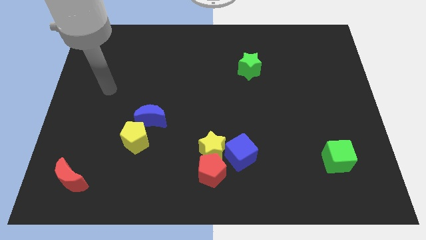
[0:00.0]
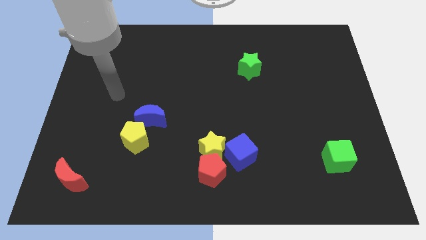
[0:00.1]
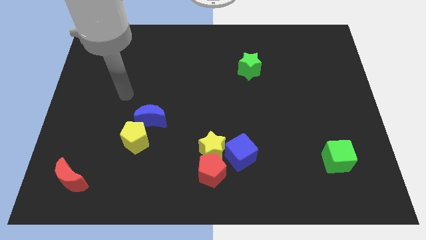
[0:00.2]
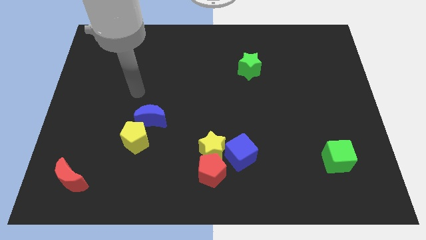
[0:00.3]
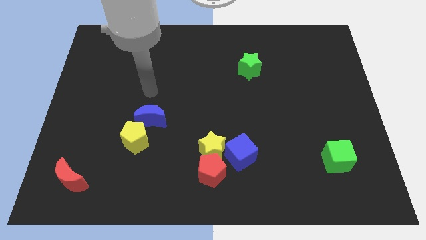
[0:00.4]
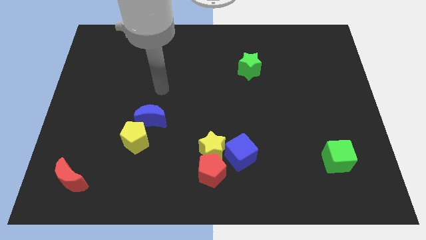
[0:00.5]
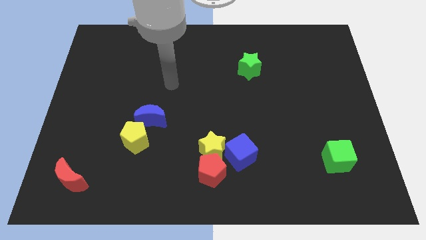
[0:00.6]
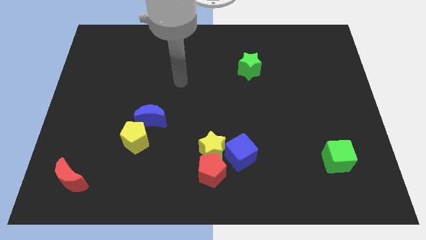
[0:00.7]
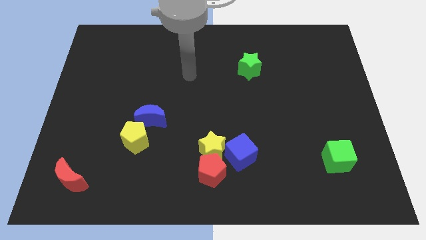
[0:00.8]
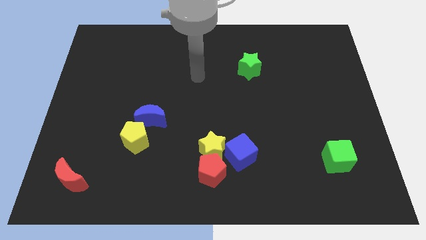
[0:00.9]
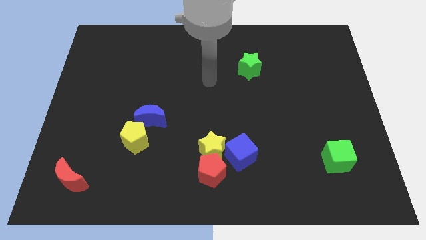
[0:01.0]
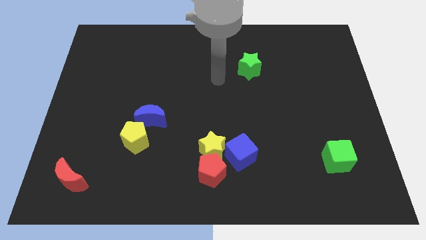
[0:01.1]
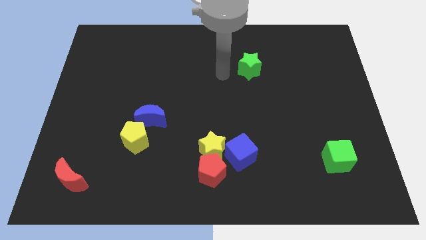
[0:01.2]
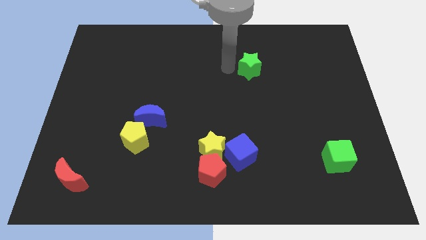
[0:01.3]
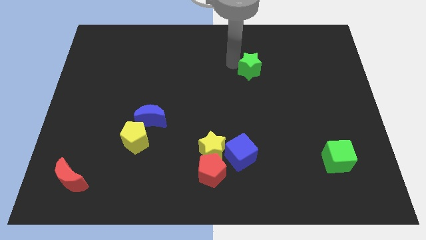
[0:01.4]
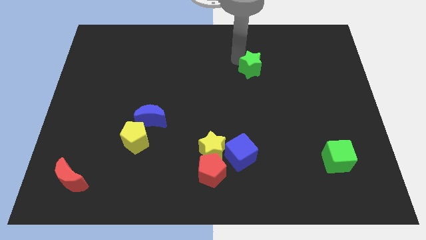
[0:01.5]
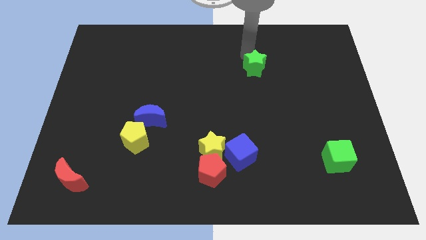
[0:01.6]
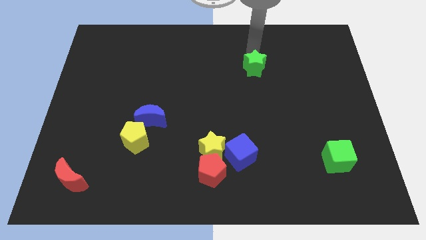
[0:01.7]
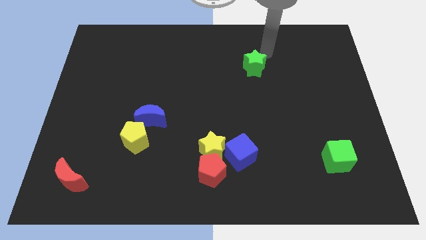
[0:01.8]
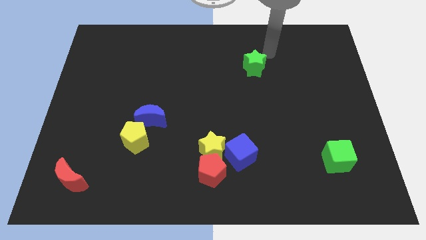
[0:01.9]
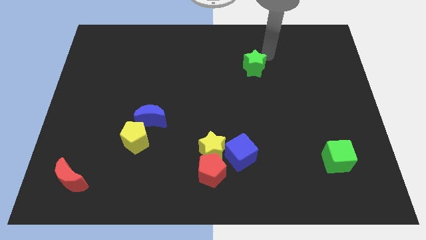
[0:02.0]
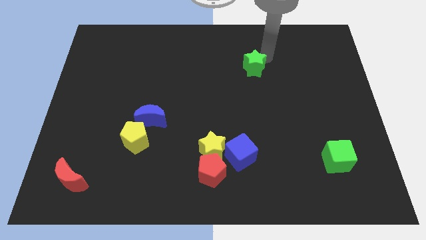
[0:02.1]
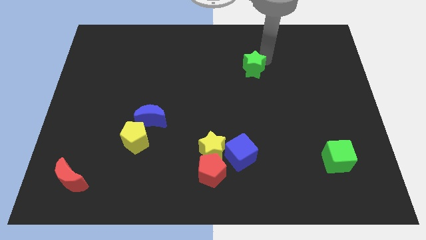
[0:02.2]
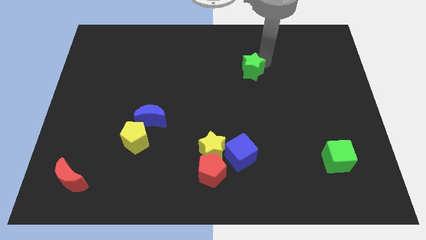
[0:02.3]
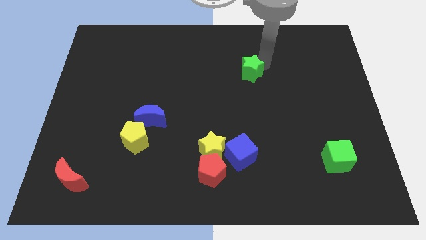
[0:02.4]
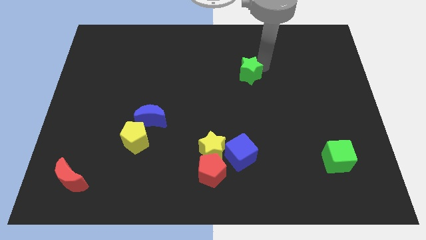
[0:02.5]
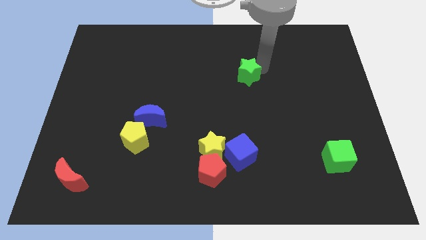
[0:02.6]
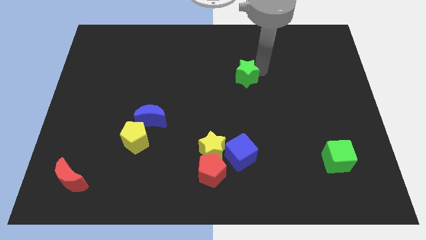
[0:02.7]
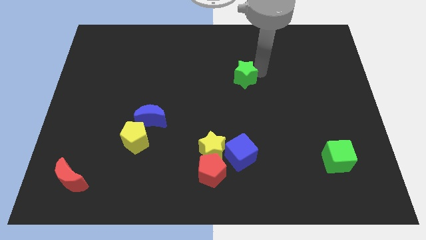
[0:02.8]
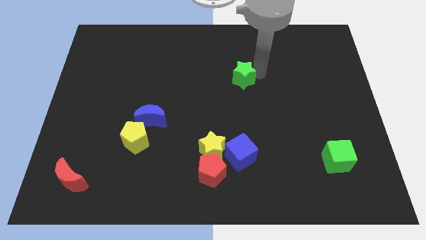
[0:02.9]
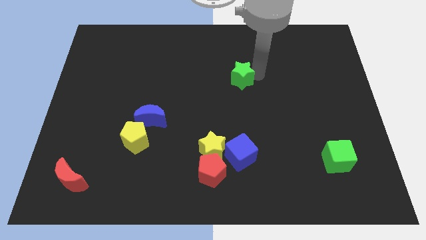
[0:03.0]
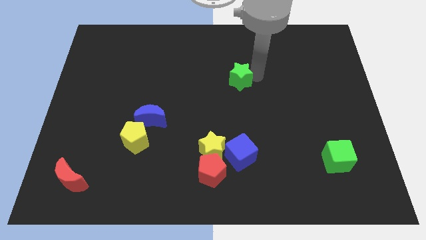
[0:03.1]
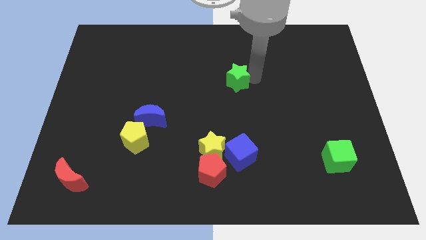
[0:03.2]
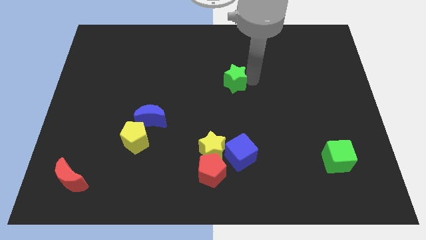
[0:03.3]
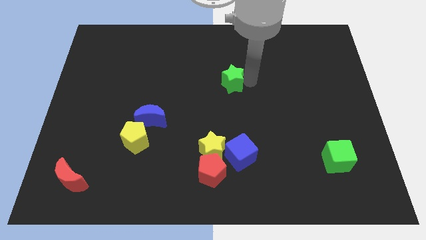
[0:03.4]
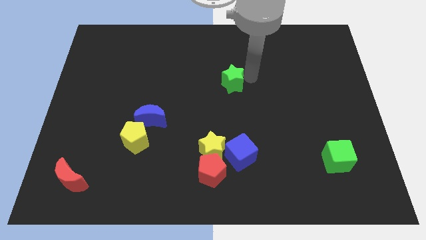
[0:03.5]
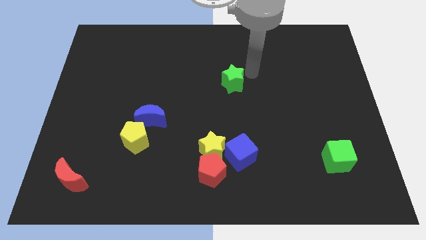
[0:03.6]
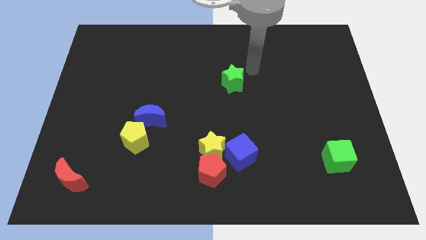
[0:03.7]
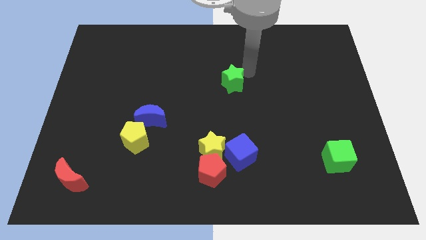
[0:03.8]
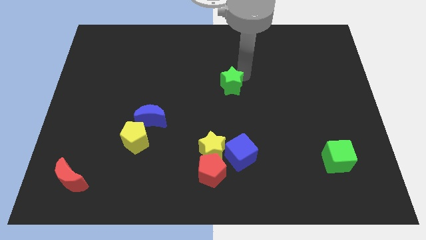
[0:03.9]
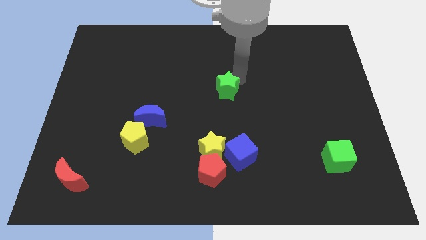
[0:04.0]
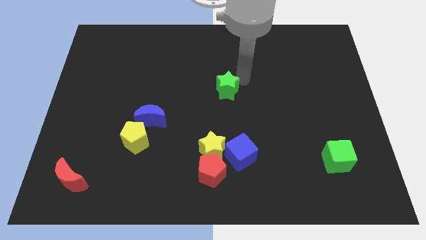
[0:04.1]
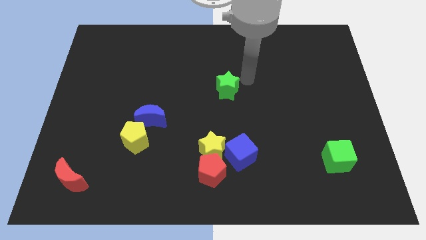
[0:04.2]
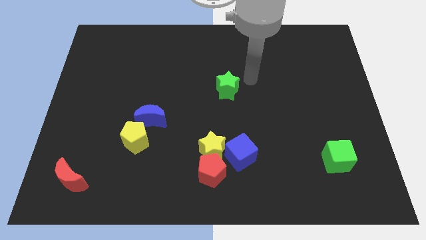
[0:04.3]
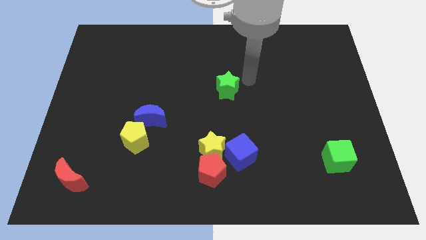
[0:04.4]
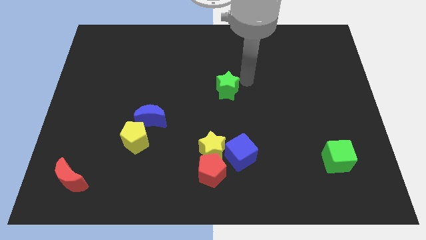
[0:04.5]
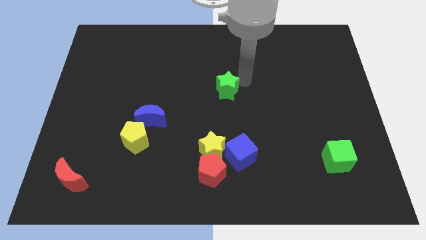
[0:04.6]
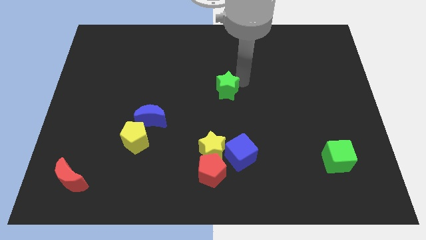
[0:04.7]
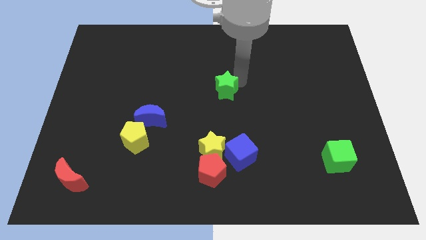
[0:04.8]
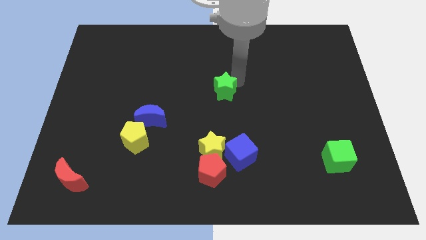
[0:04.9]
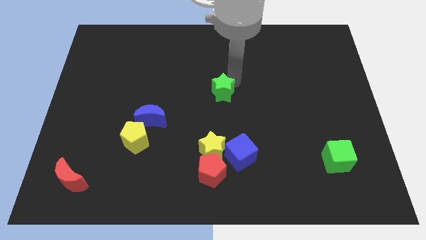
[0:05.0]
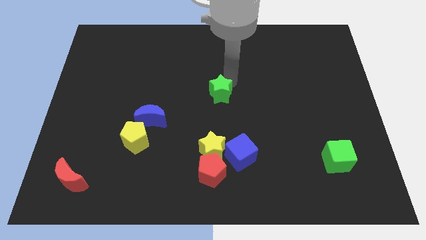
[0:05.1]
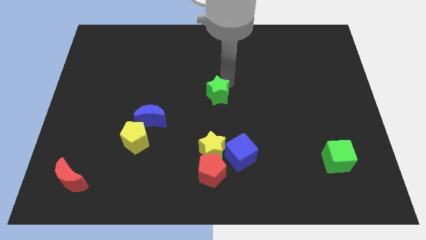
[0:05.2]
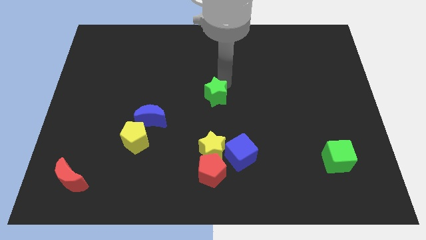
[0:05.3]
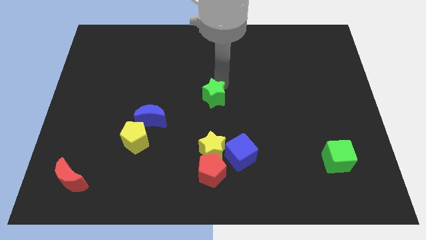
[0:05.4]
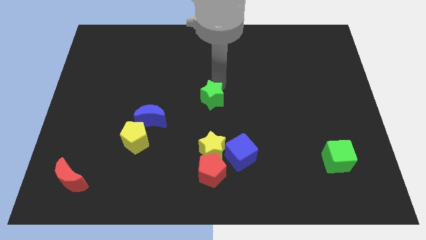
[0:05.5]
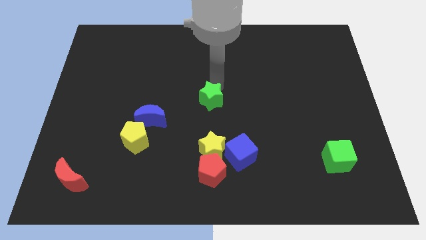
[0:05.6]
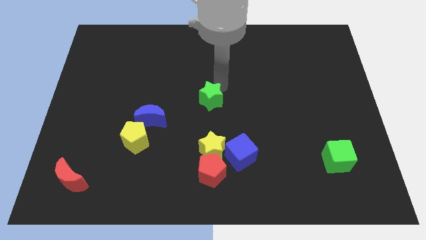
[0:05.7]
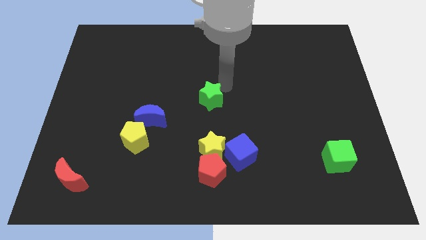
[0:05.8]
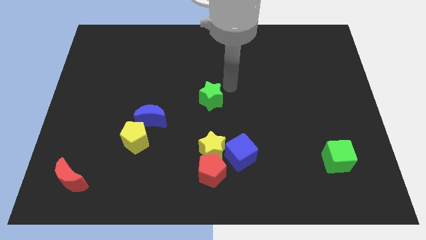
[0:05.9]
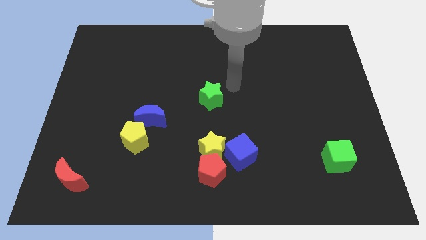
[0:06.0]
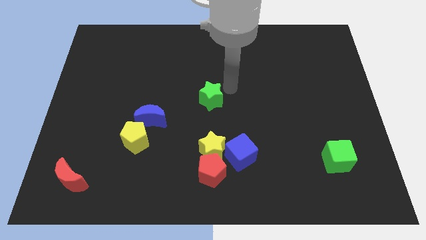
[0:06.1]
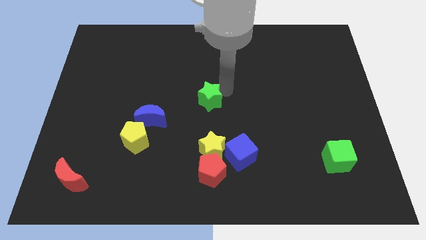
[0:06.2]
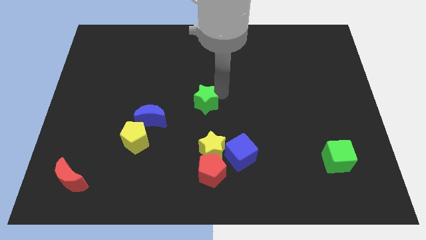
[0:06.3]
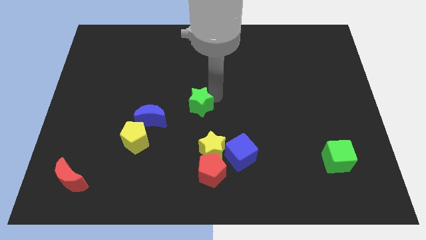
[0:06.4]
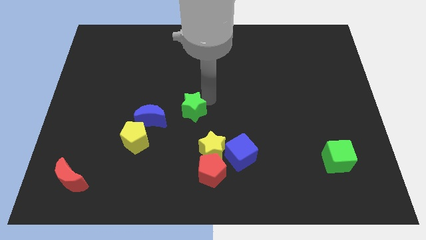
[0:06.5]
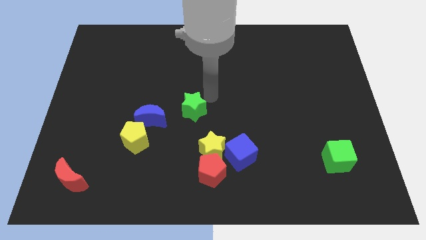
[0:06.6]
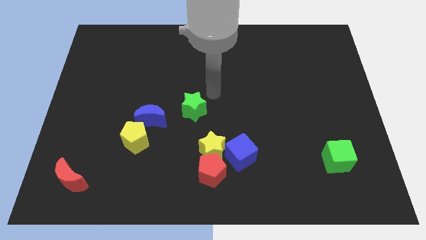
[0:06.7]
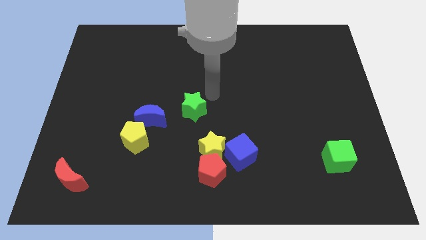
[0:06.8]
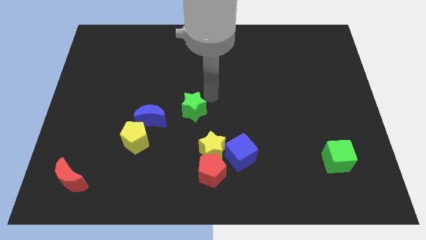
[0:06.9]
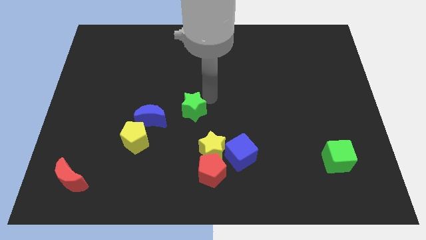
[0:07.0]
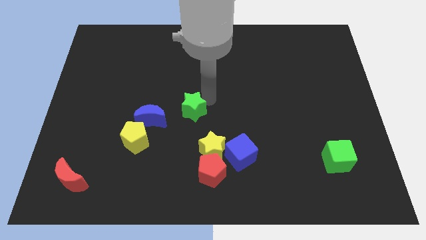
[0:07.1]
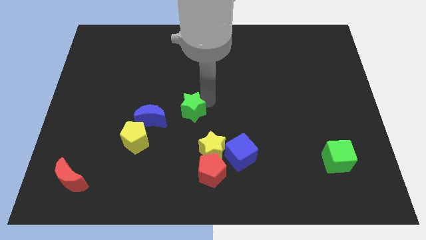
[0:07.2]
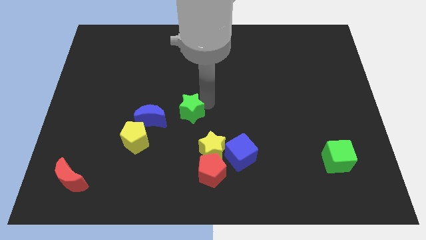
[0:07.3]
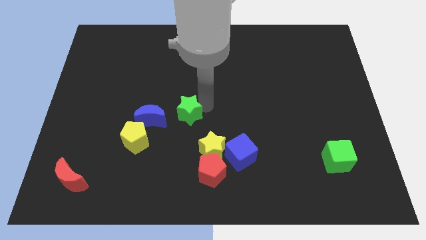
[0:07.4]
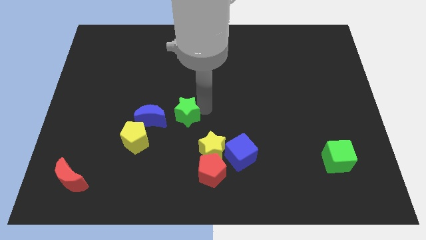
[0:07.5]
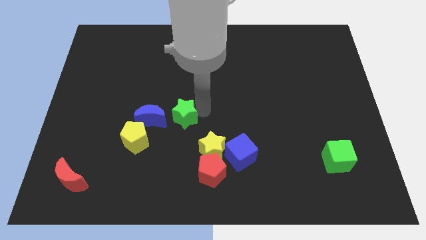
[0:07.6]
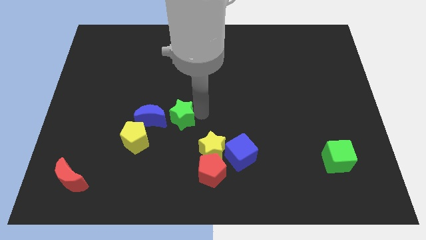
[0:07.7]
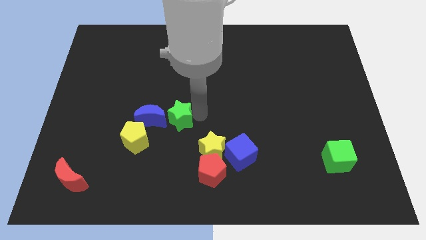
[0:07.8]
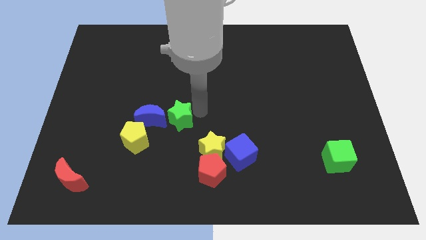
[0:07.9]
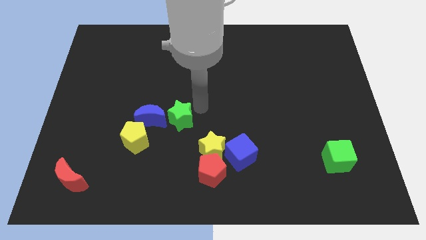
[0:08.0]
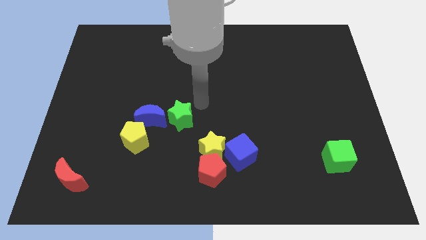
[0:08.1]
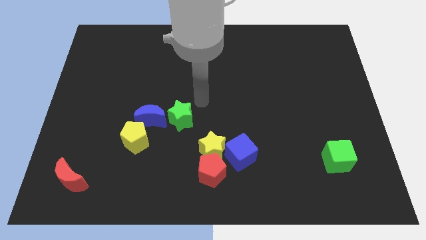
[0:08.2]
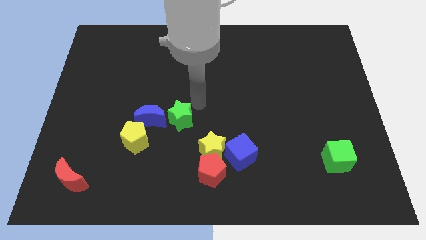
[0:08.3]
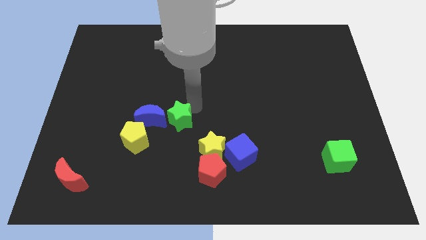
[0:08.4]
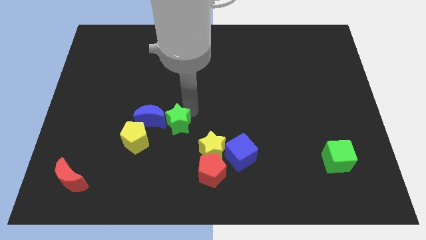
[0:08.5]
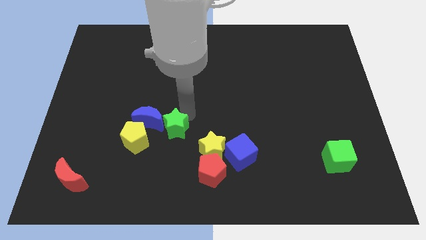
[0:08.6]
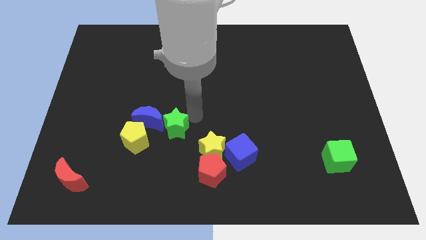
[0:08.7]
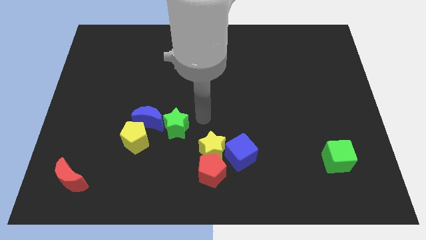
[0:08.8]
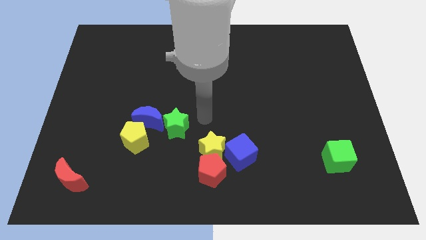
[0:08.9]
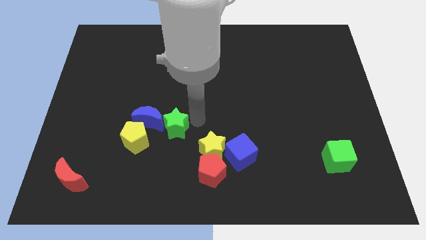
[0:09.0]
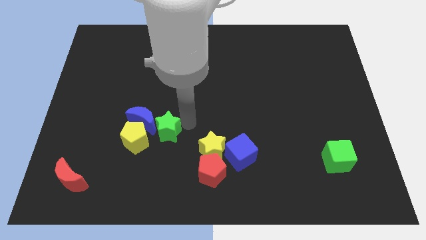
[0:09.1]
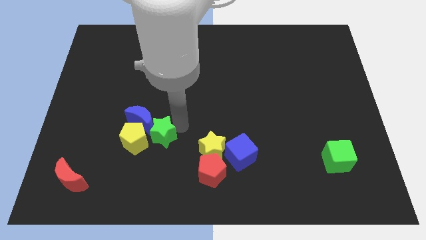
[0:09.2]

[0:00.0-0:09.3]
move the green star to the yellow pentagon
